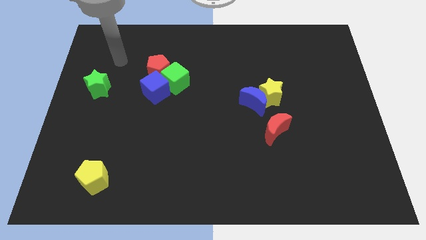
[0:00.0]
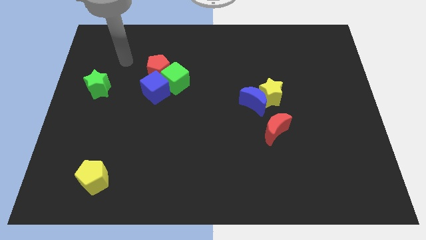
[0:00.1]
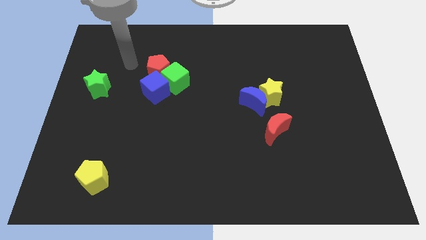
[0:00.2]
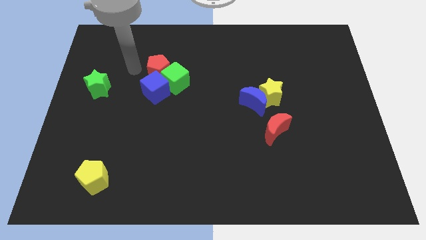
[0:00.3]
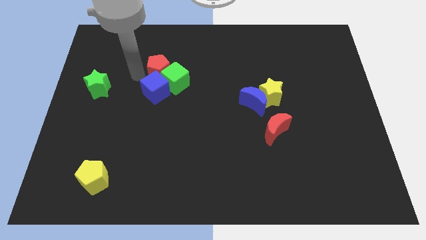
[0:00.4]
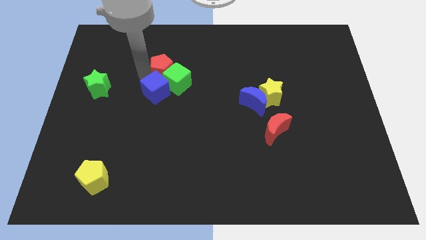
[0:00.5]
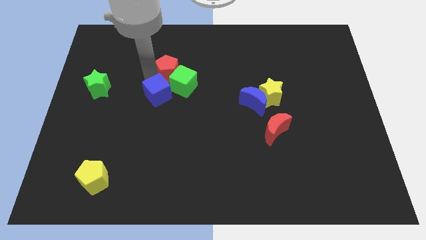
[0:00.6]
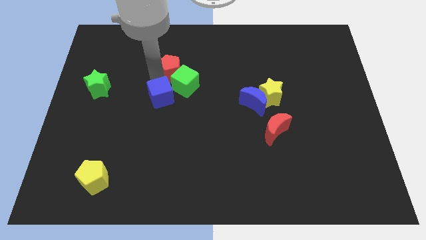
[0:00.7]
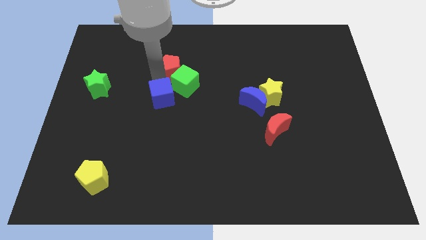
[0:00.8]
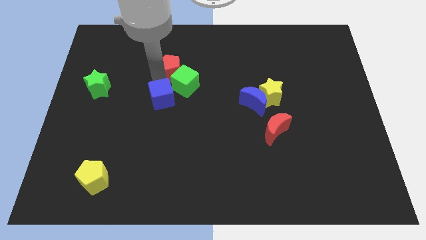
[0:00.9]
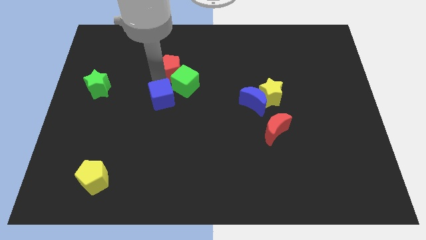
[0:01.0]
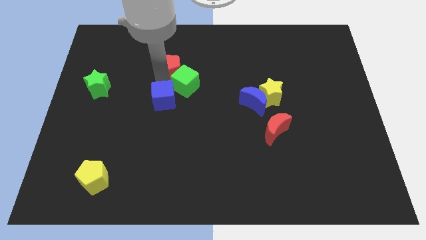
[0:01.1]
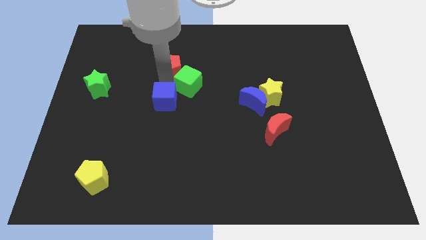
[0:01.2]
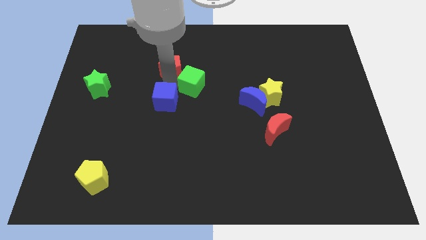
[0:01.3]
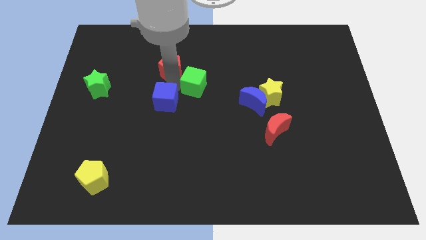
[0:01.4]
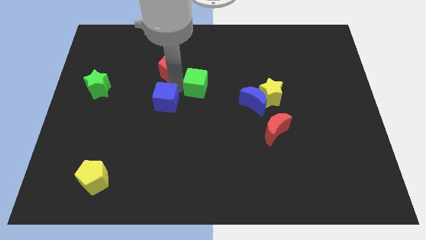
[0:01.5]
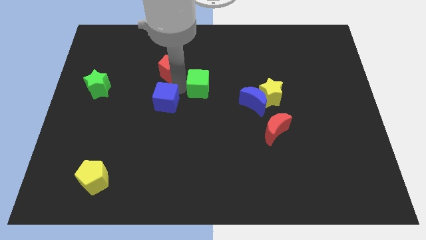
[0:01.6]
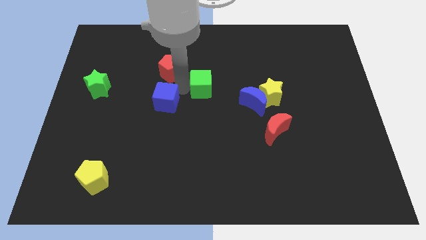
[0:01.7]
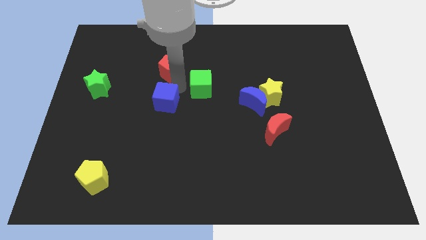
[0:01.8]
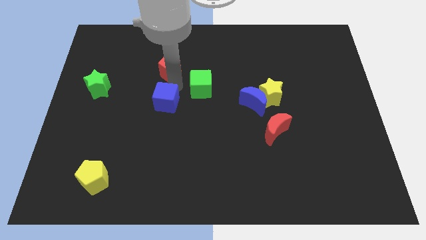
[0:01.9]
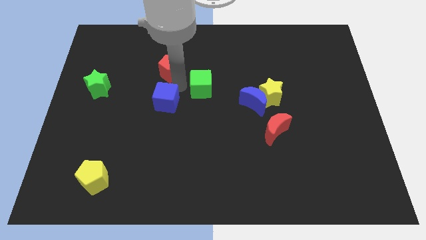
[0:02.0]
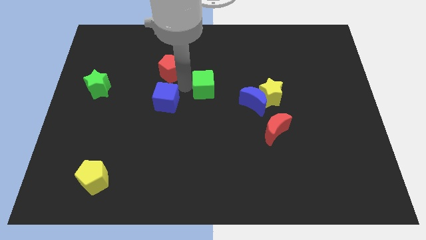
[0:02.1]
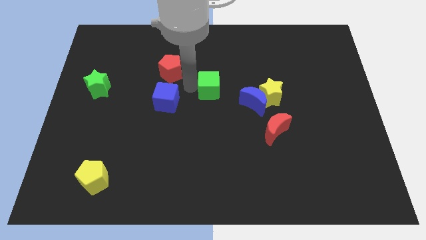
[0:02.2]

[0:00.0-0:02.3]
move the green cube away from the red pentagon and blue cube

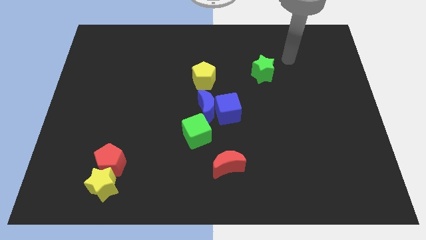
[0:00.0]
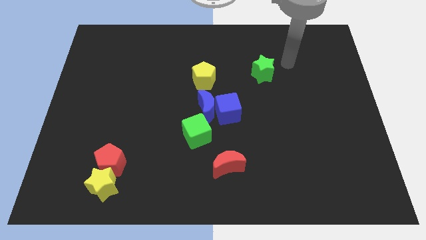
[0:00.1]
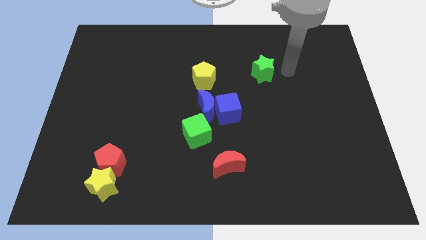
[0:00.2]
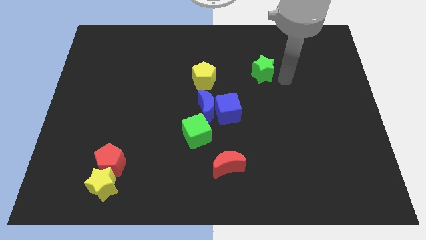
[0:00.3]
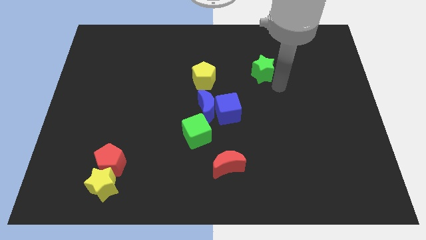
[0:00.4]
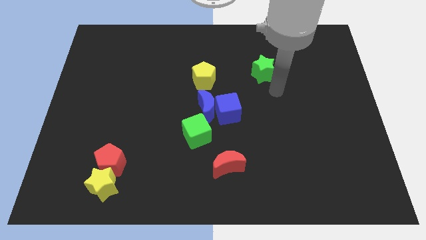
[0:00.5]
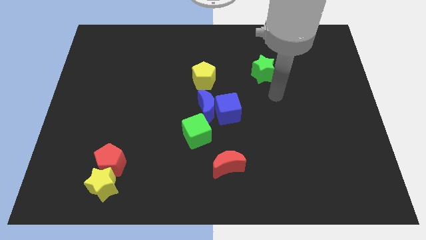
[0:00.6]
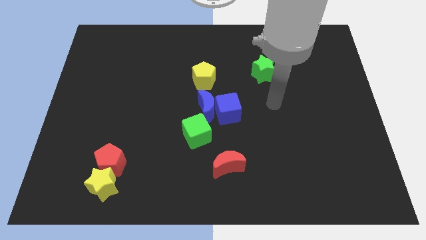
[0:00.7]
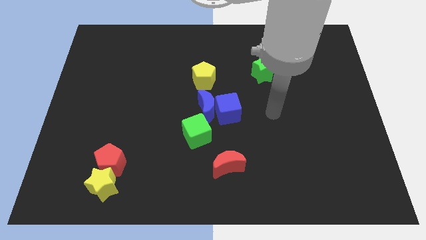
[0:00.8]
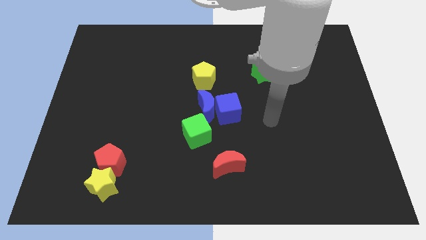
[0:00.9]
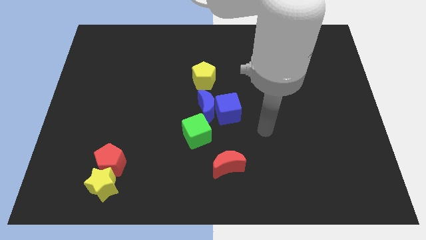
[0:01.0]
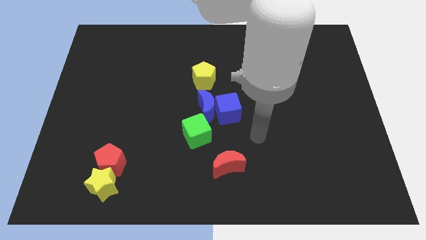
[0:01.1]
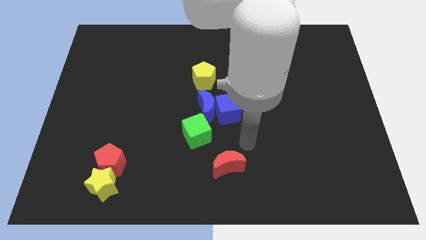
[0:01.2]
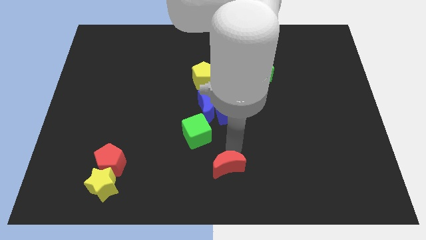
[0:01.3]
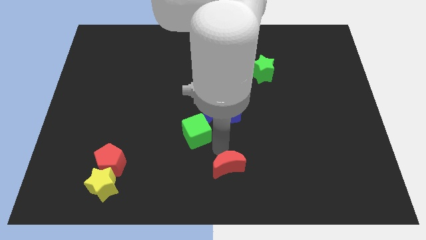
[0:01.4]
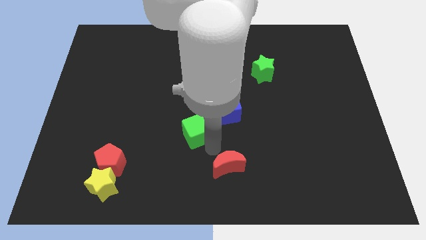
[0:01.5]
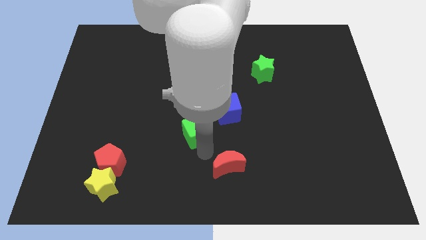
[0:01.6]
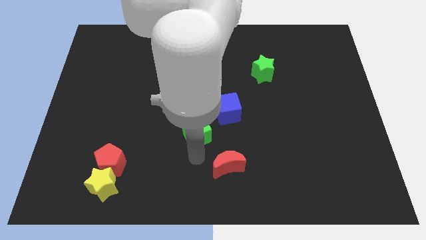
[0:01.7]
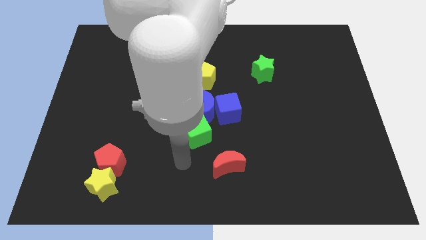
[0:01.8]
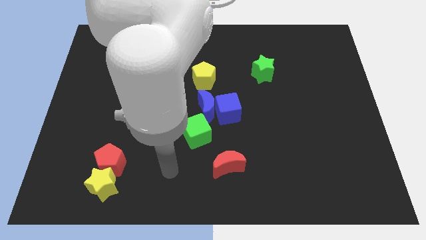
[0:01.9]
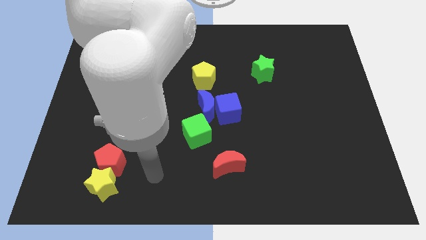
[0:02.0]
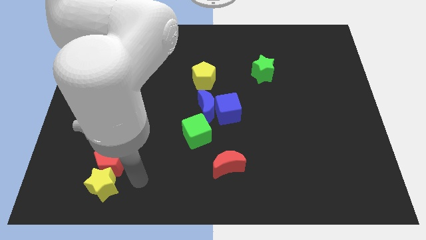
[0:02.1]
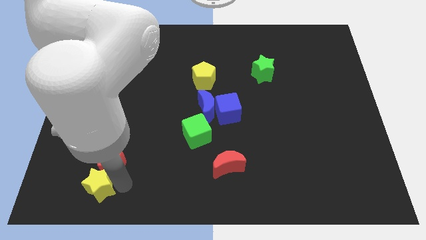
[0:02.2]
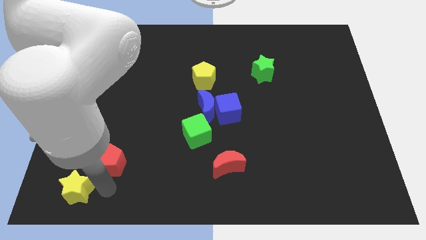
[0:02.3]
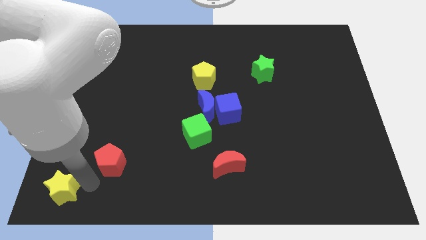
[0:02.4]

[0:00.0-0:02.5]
pull the red pentagon apart from the yellow star

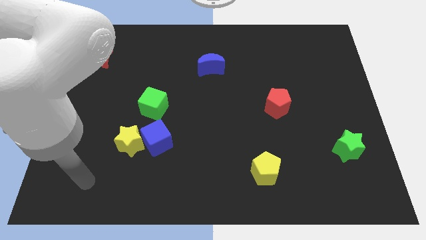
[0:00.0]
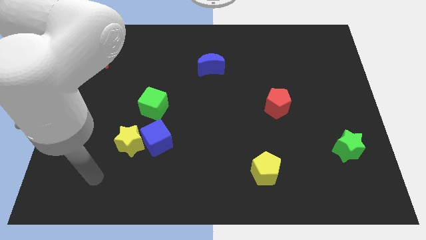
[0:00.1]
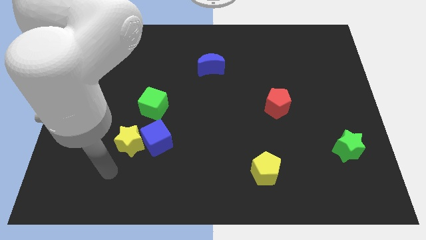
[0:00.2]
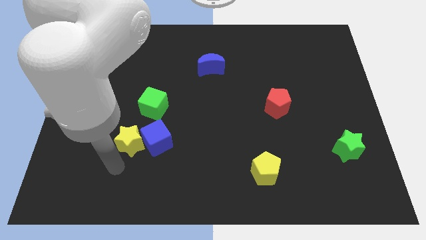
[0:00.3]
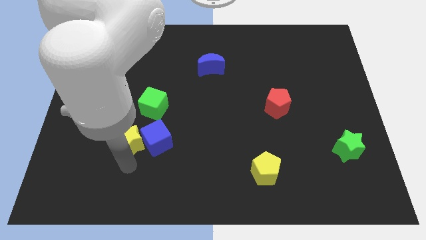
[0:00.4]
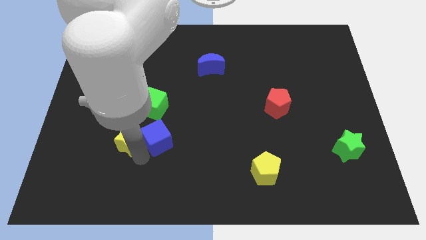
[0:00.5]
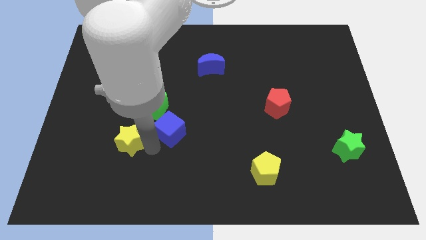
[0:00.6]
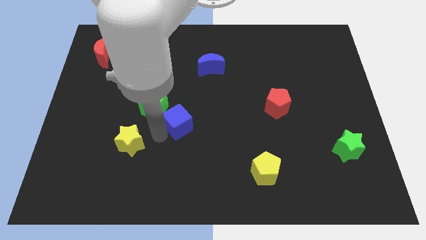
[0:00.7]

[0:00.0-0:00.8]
separate the yellow star from the blue cube

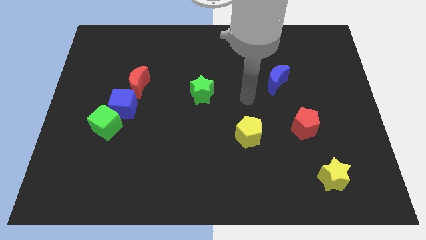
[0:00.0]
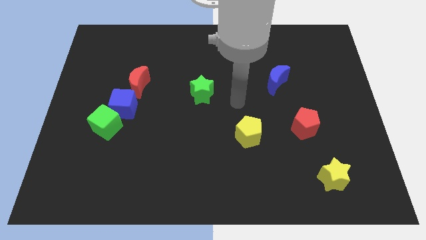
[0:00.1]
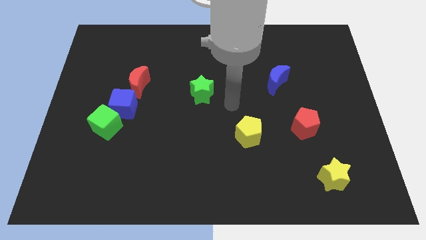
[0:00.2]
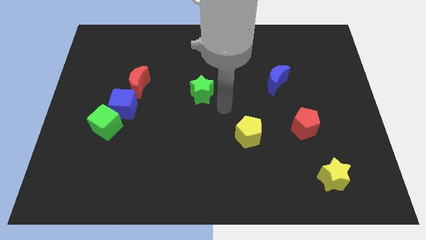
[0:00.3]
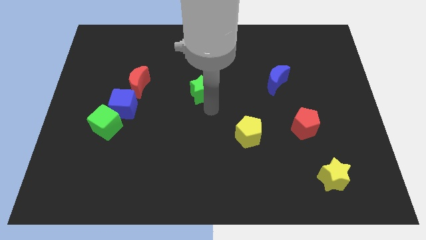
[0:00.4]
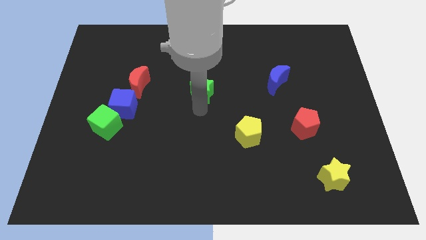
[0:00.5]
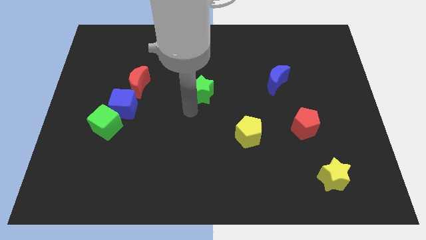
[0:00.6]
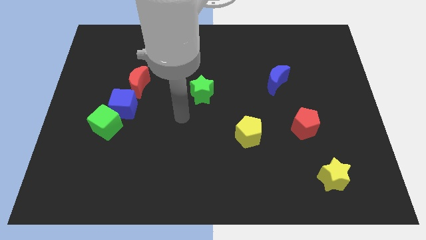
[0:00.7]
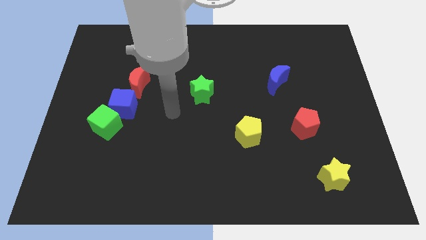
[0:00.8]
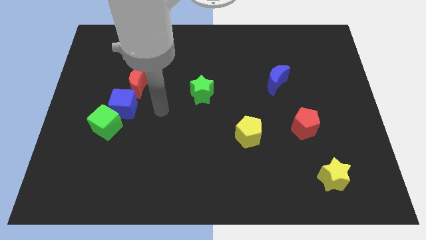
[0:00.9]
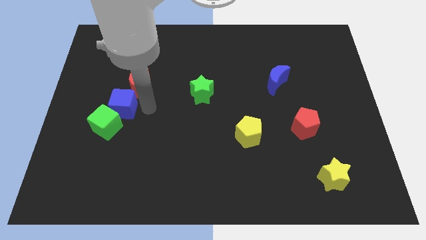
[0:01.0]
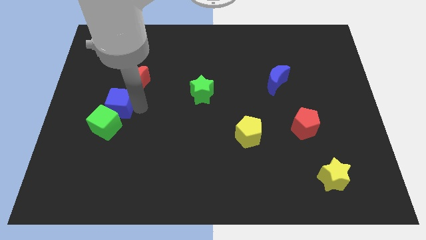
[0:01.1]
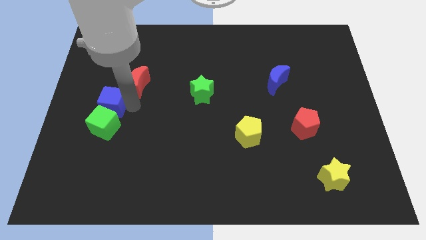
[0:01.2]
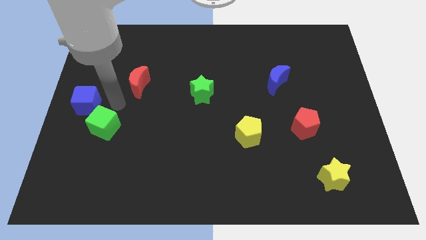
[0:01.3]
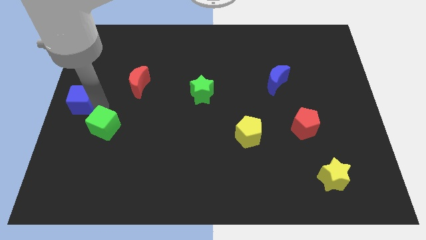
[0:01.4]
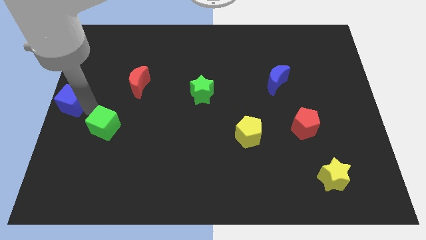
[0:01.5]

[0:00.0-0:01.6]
separate the green cube from the blue cube

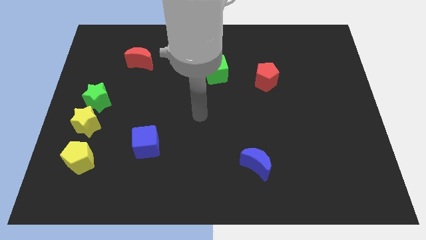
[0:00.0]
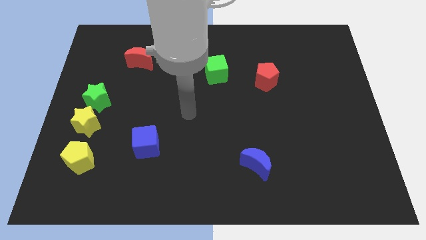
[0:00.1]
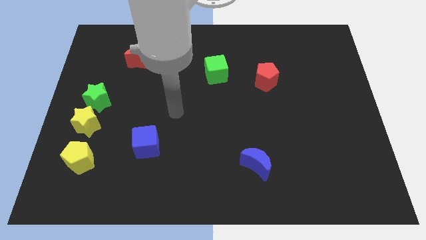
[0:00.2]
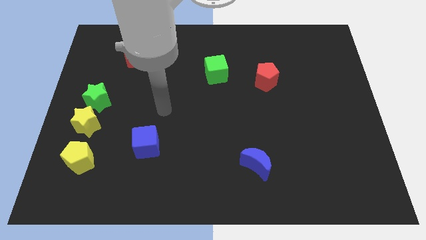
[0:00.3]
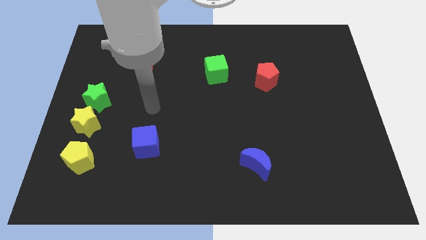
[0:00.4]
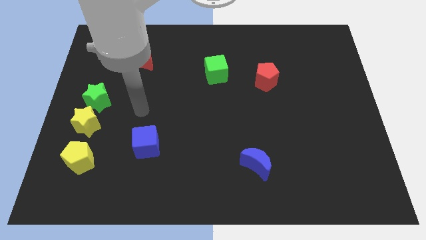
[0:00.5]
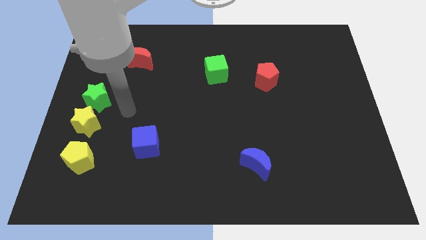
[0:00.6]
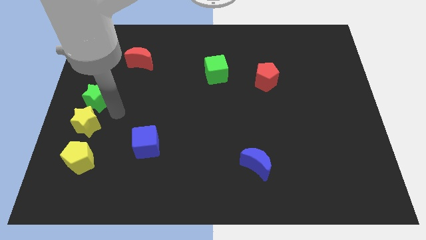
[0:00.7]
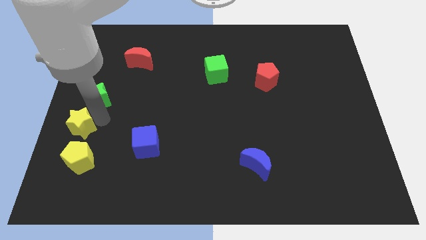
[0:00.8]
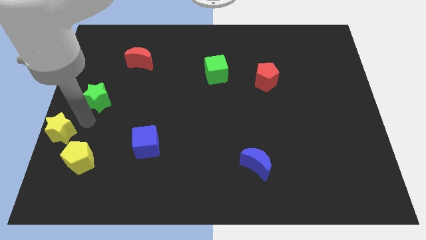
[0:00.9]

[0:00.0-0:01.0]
separate the green star from the yellow star

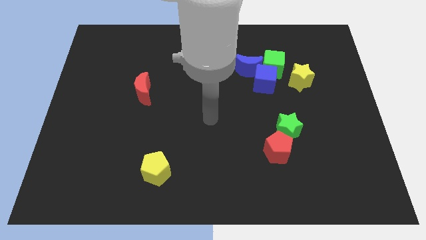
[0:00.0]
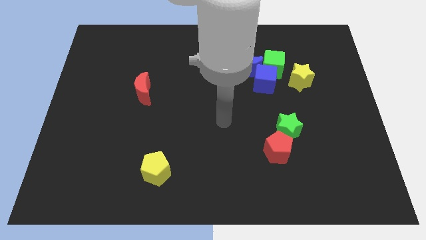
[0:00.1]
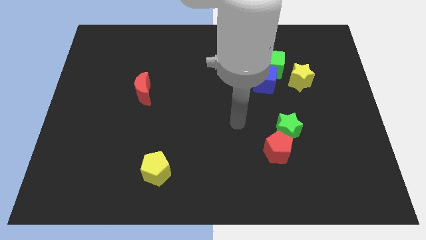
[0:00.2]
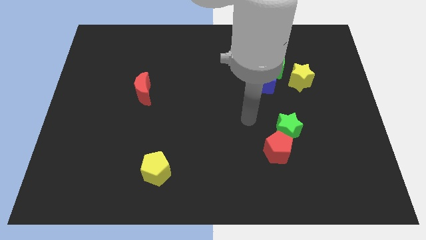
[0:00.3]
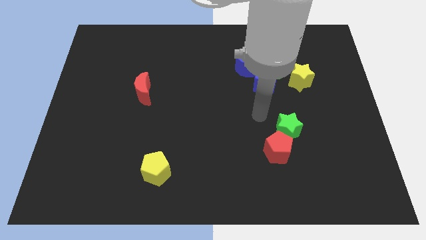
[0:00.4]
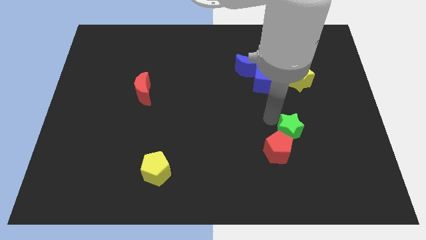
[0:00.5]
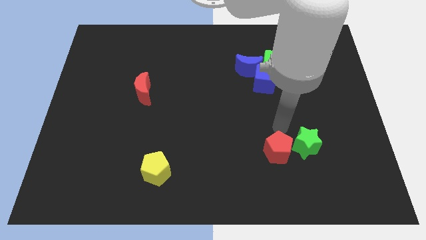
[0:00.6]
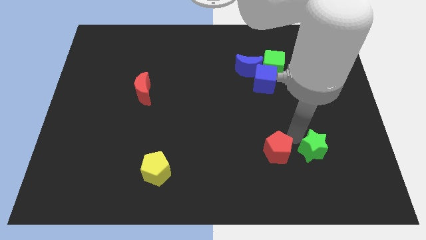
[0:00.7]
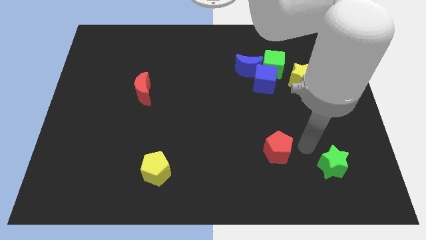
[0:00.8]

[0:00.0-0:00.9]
pull the red pentagon apart from the green star

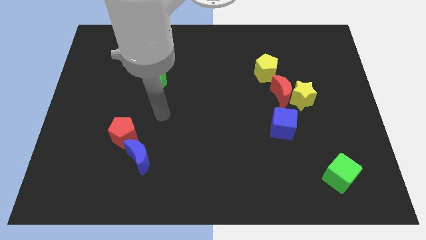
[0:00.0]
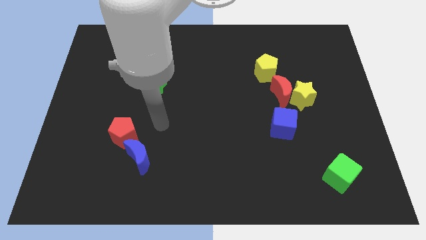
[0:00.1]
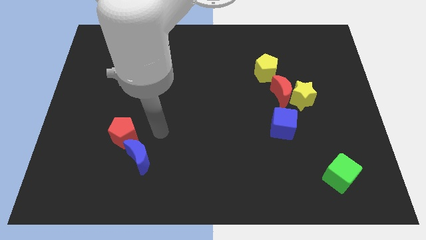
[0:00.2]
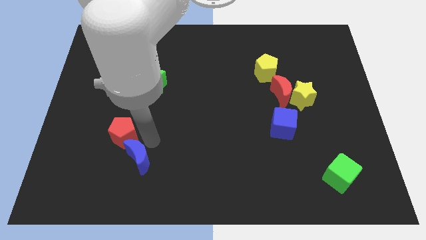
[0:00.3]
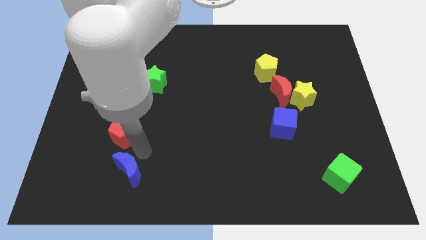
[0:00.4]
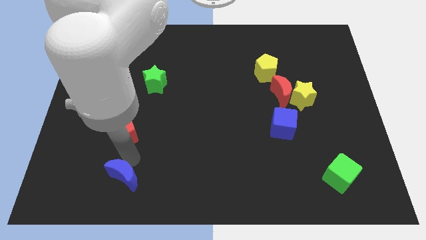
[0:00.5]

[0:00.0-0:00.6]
separate the red pentagon from the blue moon
